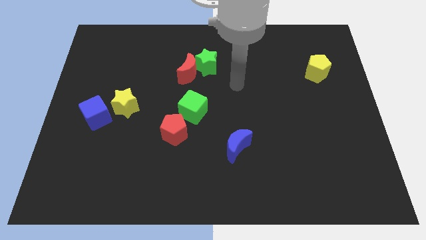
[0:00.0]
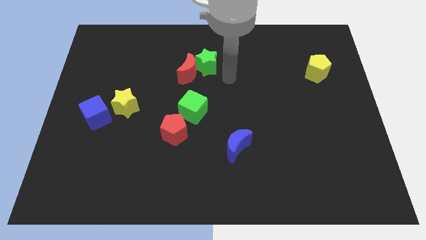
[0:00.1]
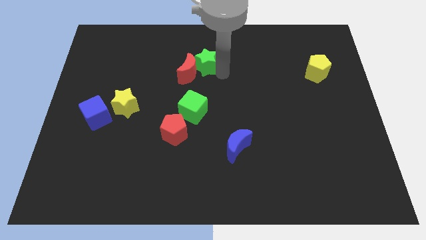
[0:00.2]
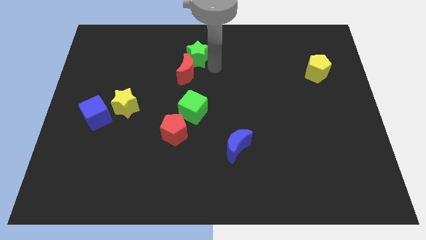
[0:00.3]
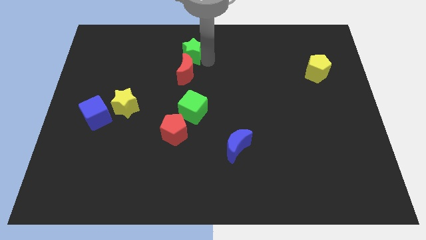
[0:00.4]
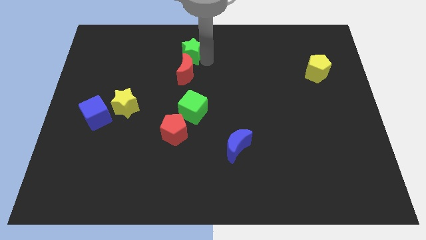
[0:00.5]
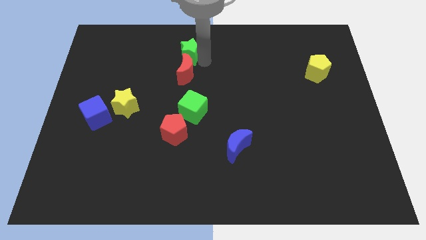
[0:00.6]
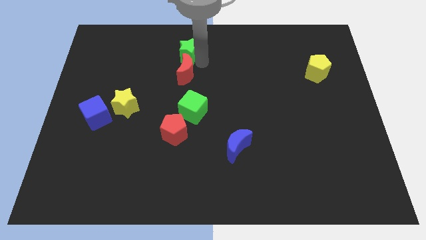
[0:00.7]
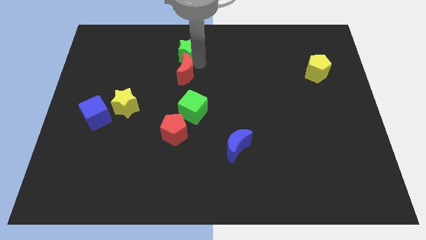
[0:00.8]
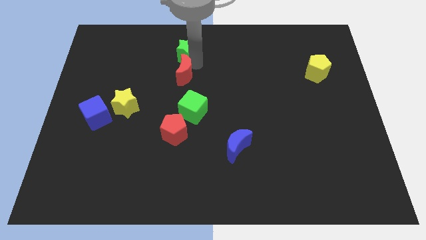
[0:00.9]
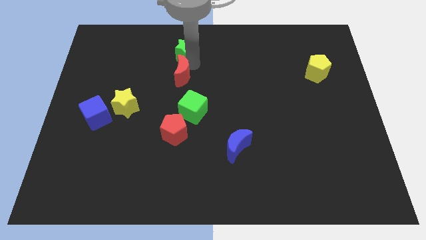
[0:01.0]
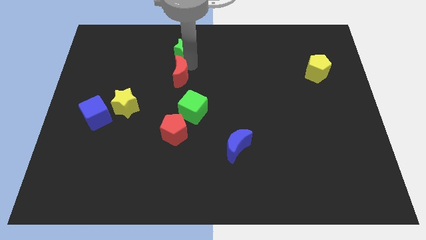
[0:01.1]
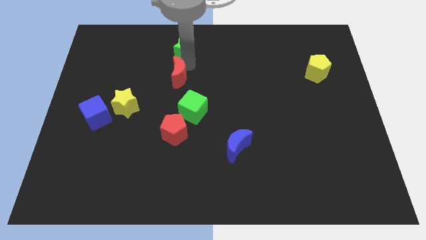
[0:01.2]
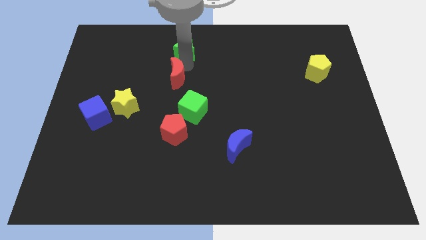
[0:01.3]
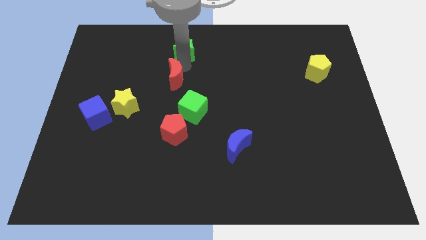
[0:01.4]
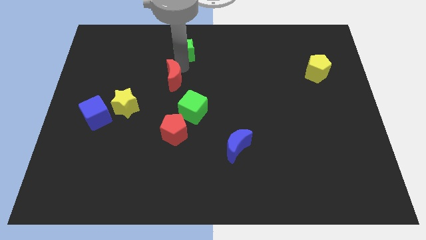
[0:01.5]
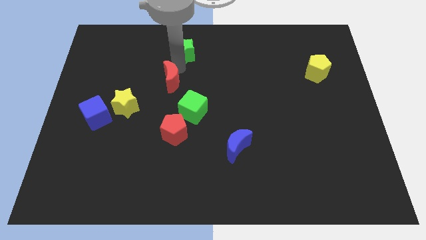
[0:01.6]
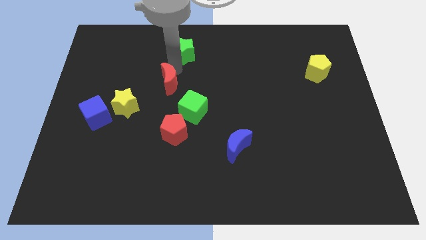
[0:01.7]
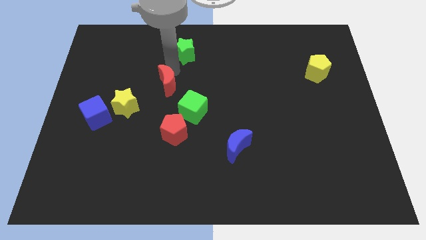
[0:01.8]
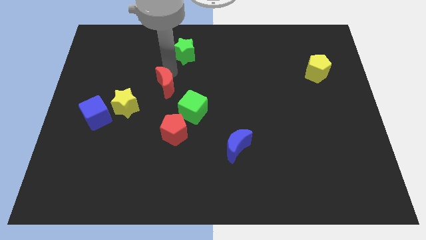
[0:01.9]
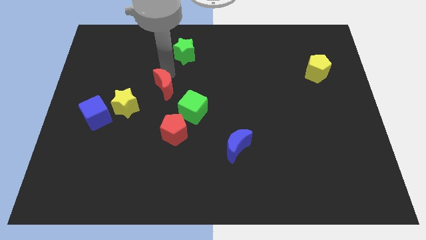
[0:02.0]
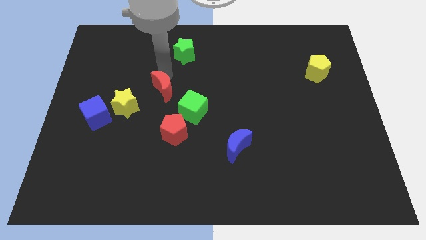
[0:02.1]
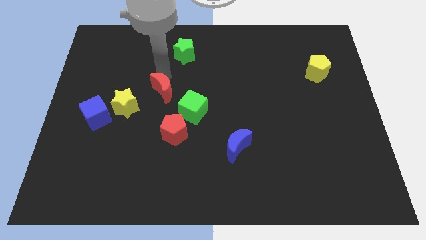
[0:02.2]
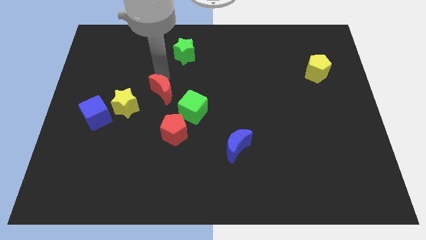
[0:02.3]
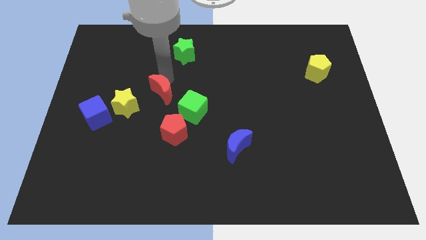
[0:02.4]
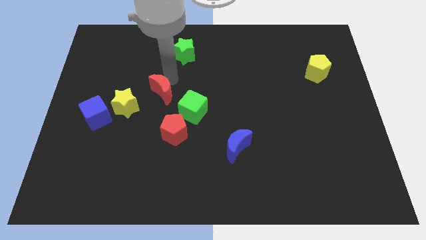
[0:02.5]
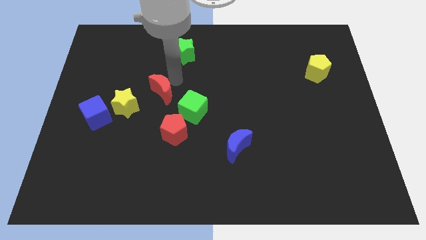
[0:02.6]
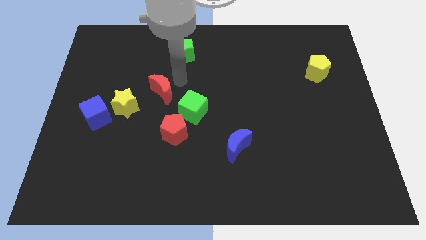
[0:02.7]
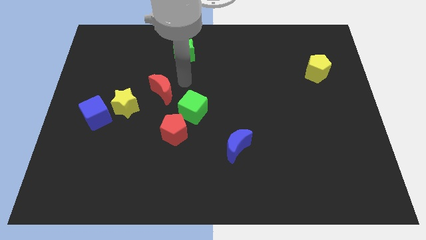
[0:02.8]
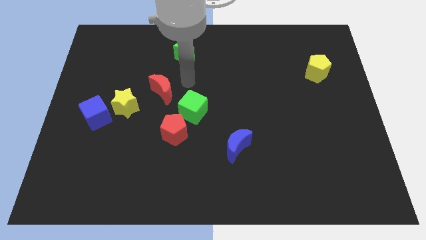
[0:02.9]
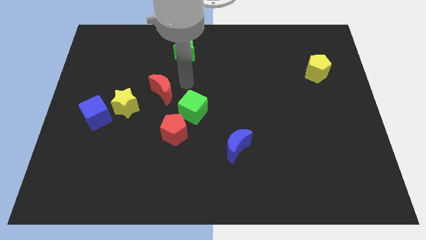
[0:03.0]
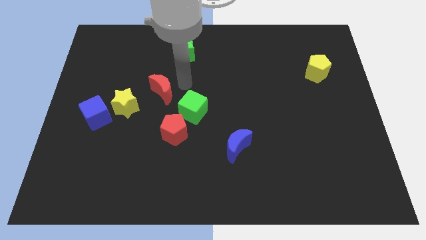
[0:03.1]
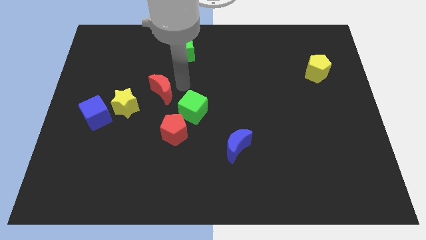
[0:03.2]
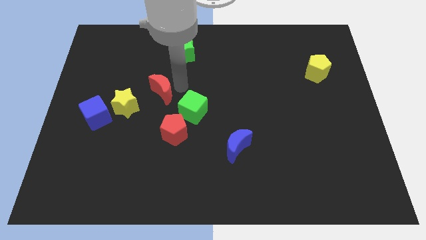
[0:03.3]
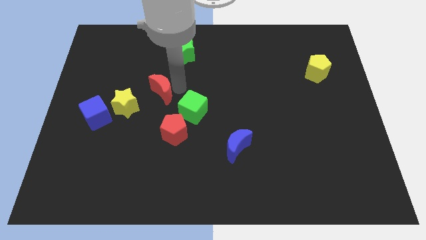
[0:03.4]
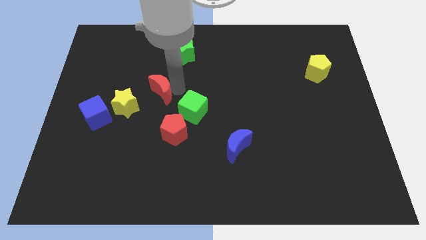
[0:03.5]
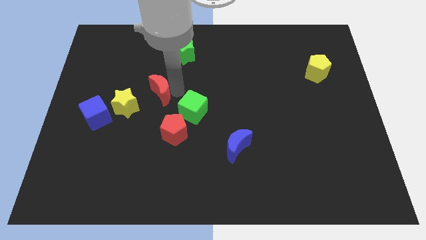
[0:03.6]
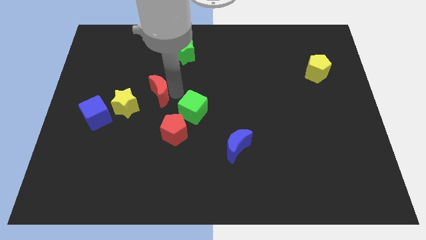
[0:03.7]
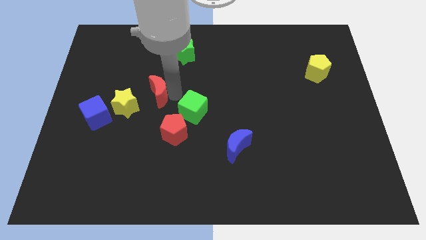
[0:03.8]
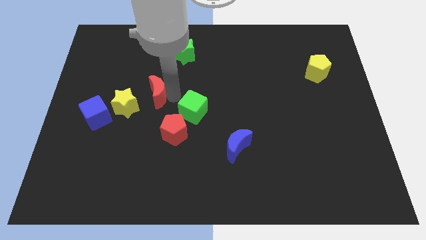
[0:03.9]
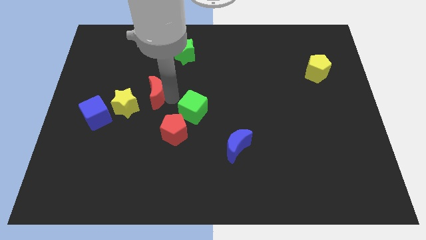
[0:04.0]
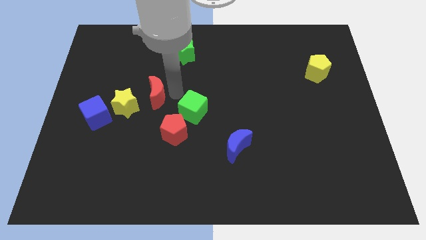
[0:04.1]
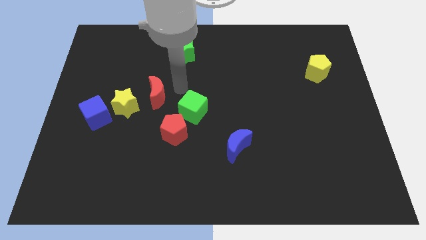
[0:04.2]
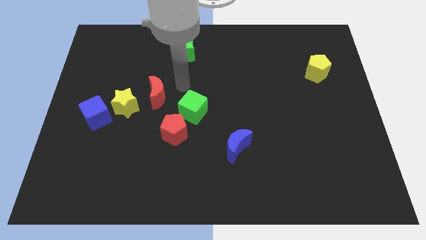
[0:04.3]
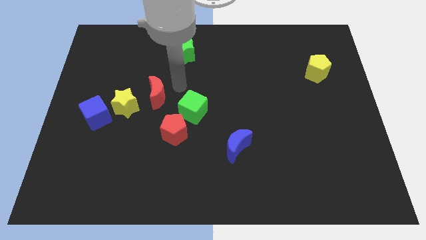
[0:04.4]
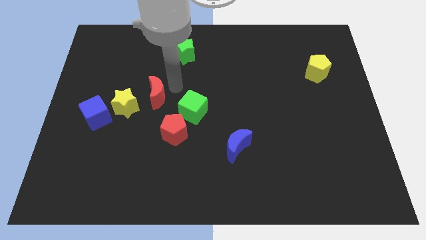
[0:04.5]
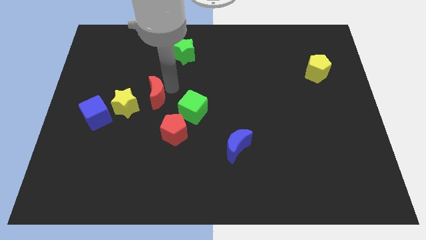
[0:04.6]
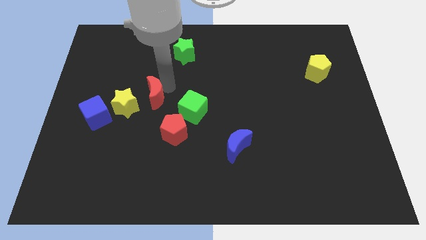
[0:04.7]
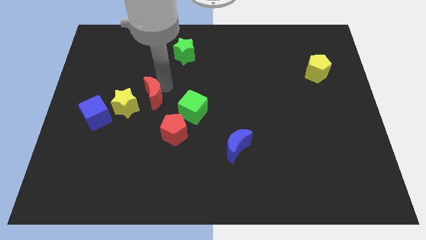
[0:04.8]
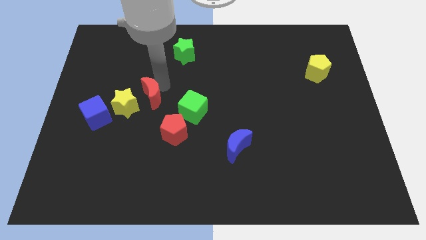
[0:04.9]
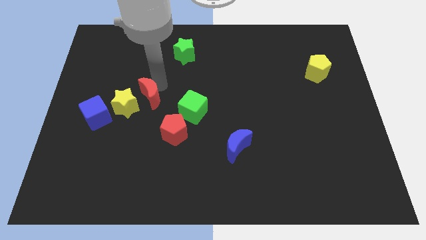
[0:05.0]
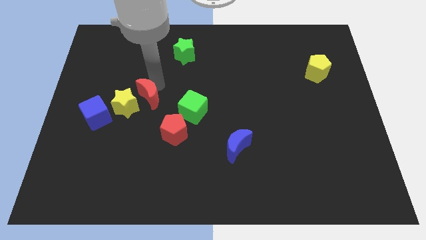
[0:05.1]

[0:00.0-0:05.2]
move the red moon next to the yellow star

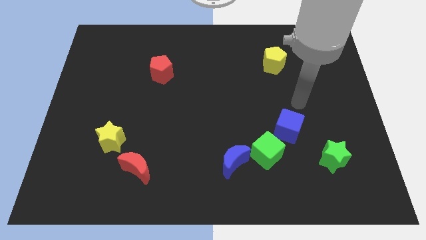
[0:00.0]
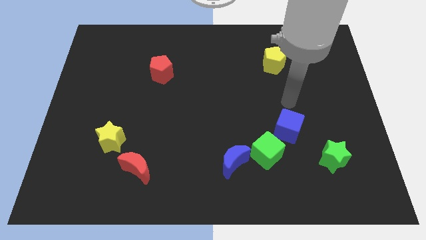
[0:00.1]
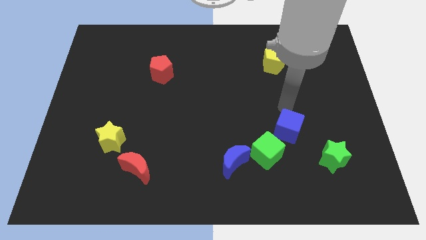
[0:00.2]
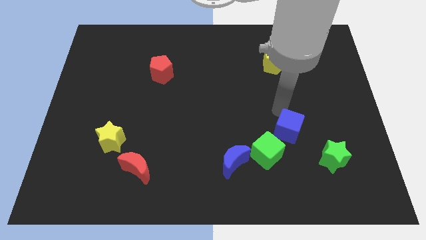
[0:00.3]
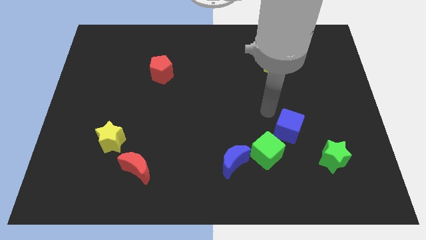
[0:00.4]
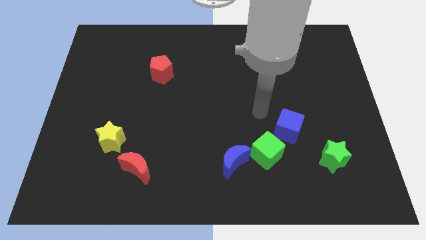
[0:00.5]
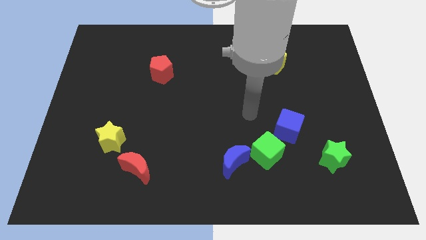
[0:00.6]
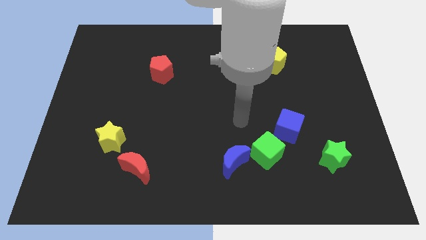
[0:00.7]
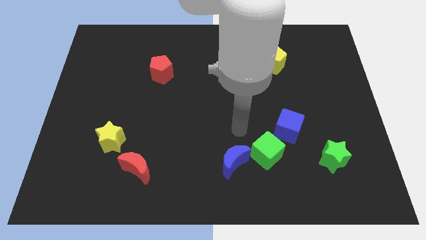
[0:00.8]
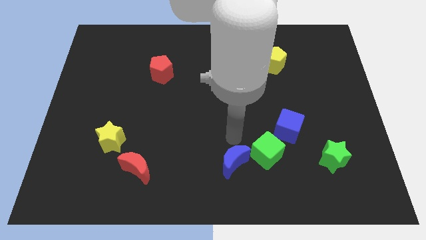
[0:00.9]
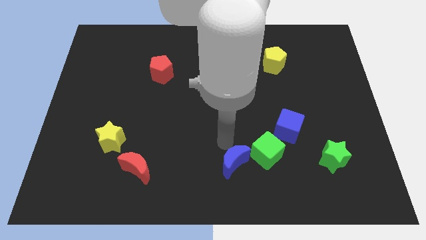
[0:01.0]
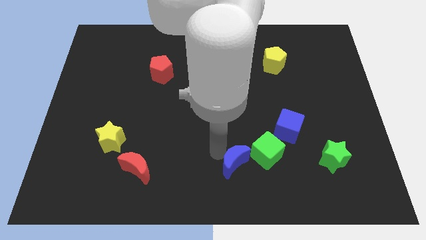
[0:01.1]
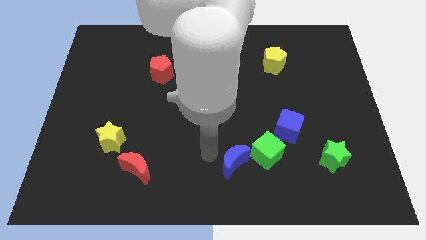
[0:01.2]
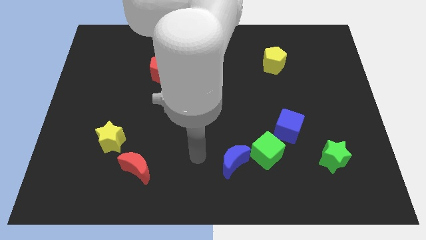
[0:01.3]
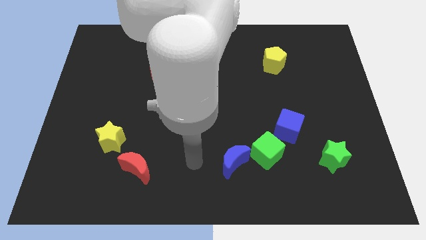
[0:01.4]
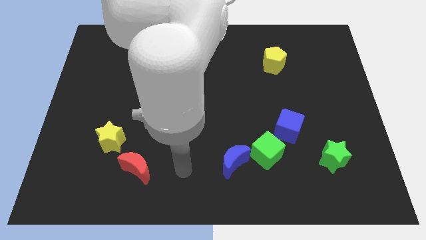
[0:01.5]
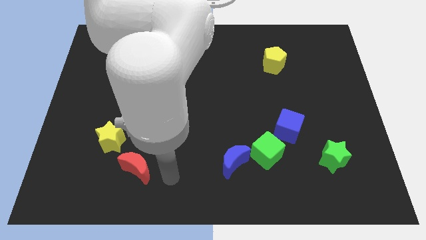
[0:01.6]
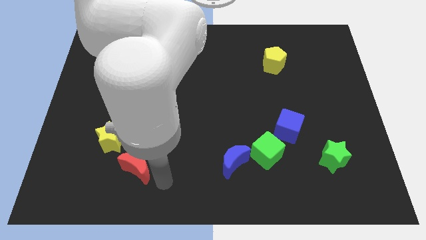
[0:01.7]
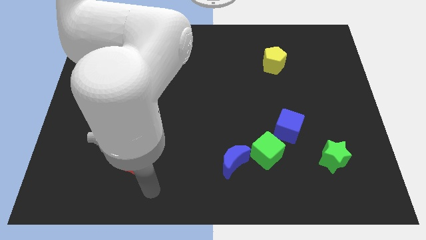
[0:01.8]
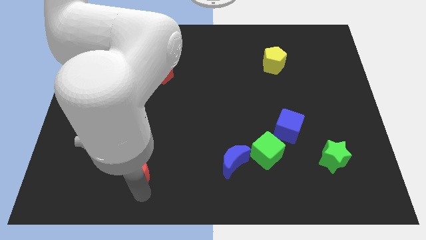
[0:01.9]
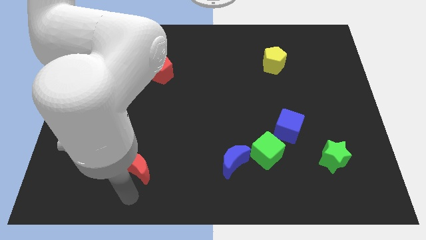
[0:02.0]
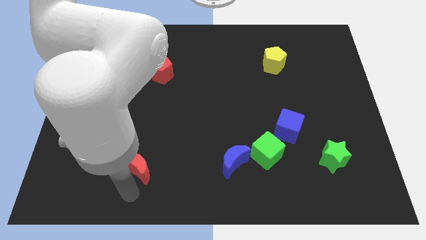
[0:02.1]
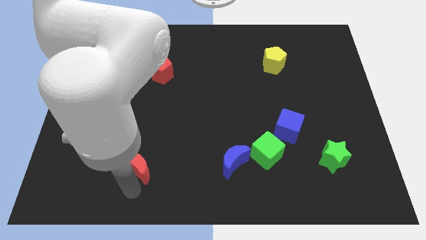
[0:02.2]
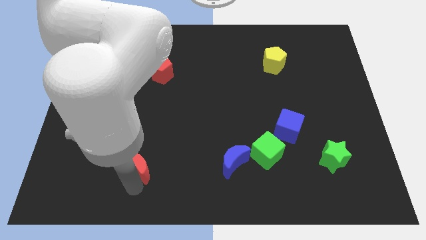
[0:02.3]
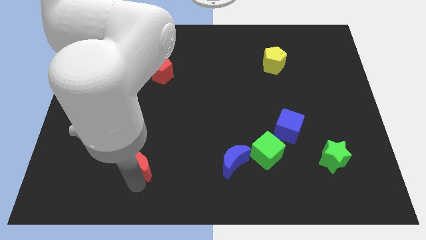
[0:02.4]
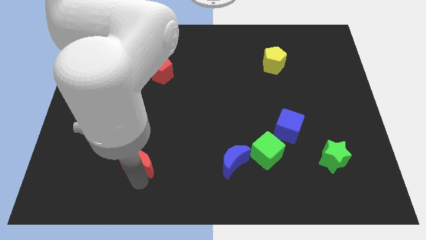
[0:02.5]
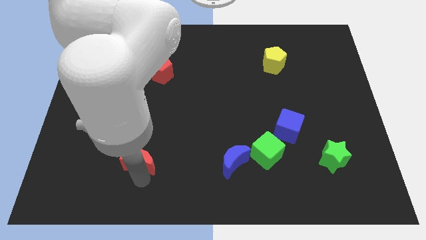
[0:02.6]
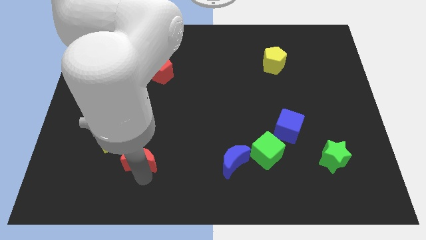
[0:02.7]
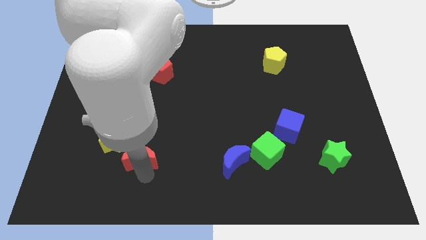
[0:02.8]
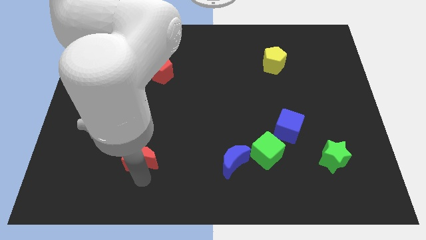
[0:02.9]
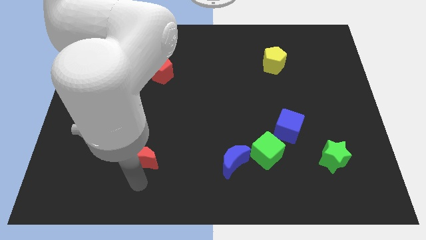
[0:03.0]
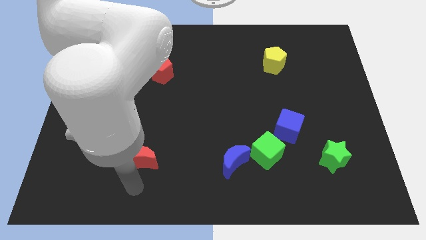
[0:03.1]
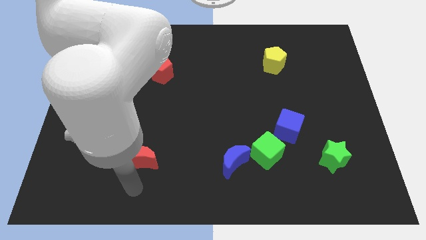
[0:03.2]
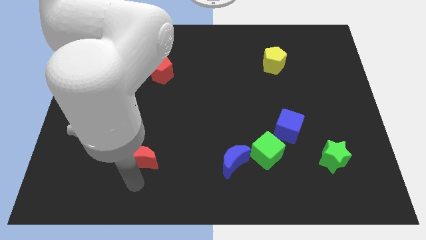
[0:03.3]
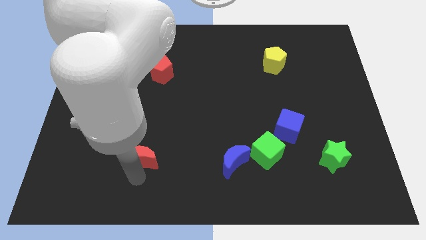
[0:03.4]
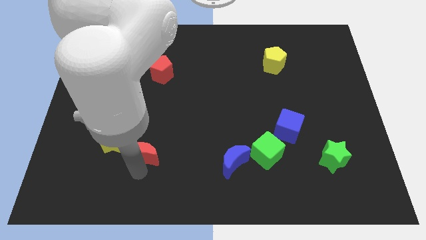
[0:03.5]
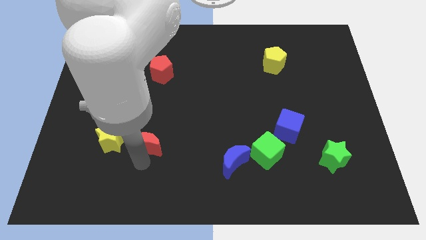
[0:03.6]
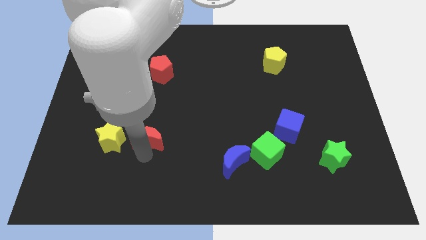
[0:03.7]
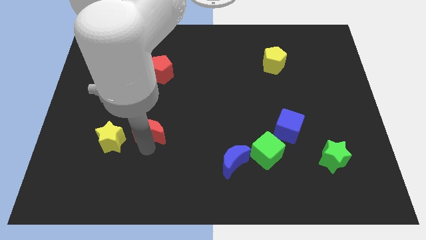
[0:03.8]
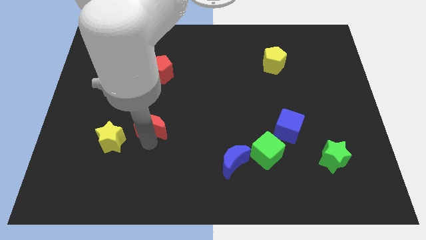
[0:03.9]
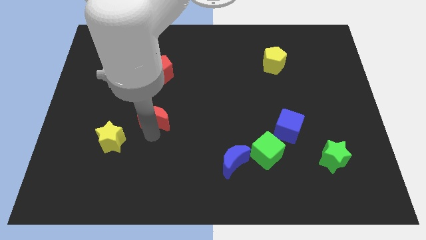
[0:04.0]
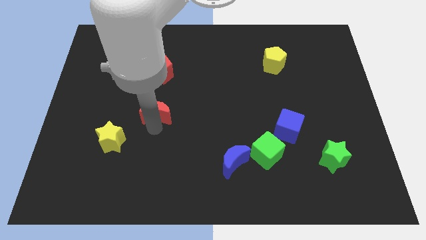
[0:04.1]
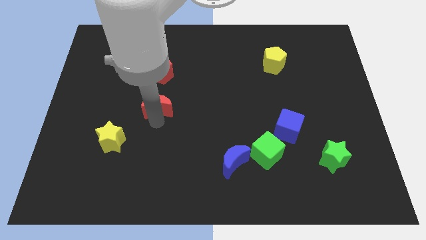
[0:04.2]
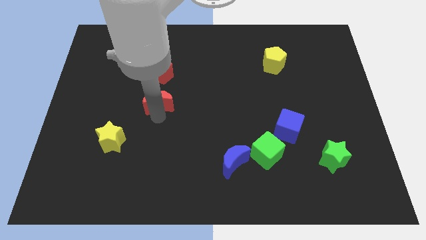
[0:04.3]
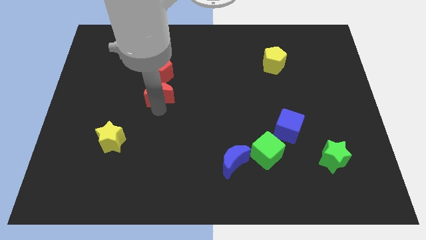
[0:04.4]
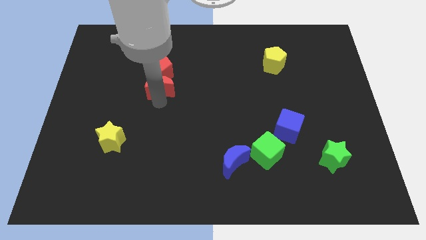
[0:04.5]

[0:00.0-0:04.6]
move the red moon next to the red pentagon
